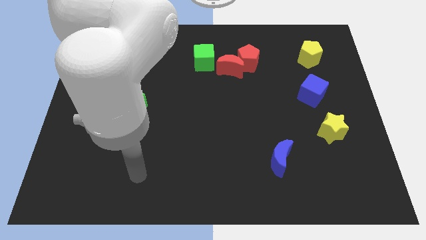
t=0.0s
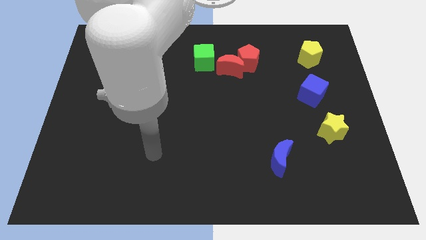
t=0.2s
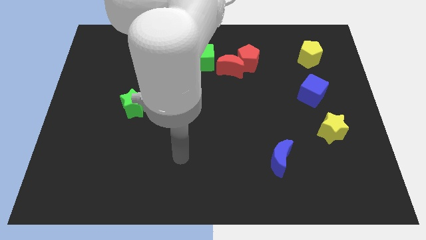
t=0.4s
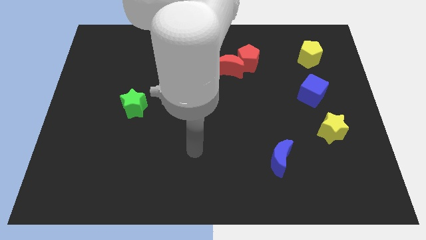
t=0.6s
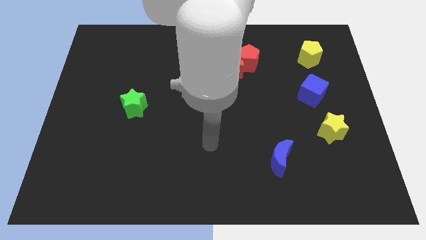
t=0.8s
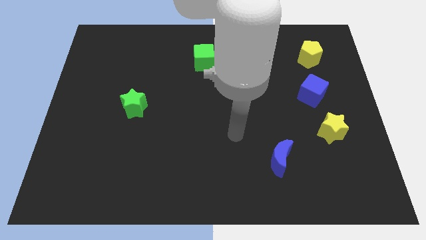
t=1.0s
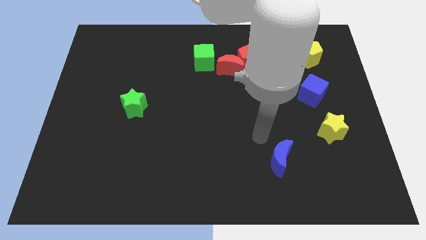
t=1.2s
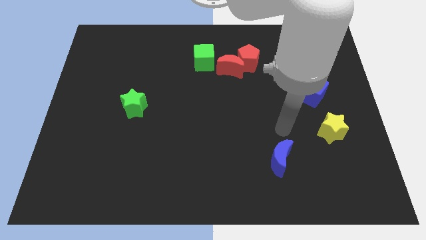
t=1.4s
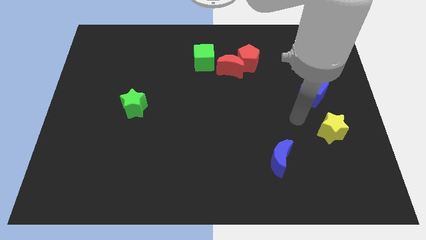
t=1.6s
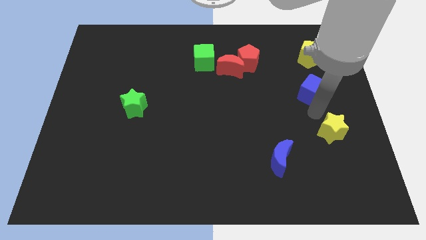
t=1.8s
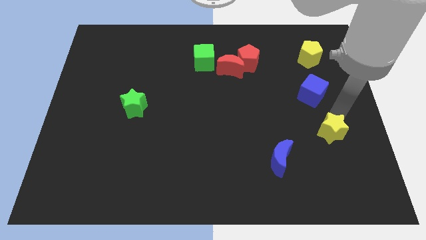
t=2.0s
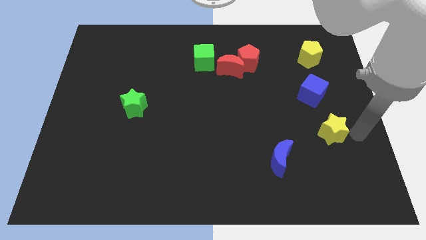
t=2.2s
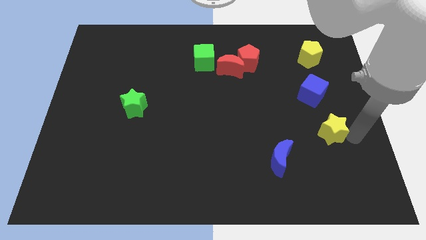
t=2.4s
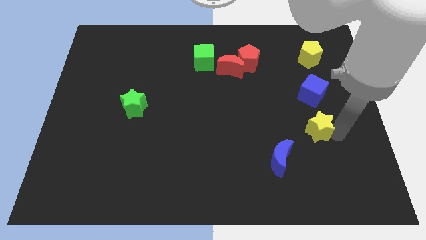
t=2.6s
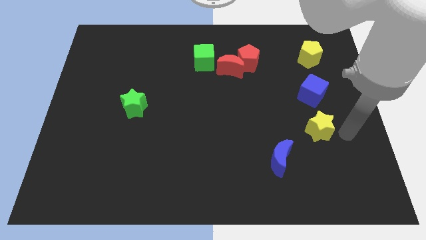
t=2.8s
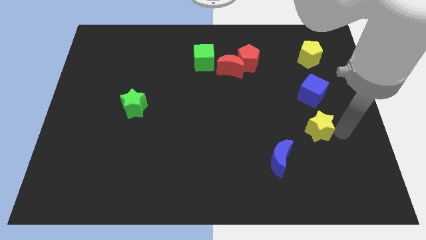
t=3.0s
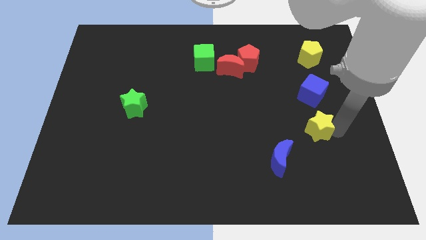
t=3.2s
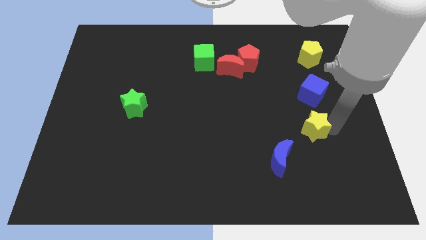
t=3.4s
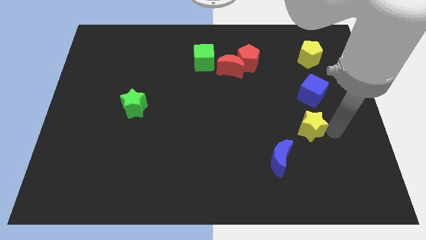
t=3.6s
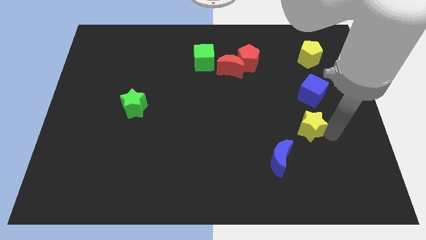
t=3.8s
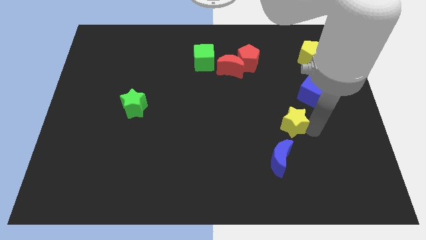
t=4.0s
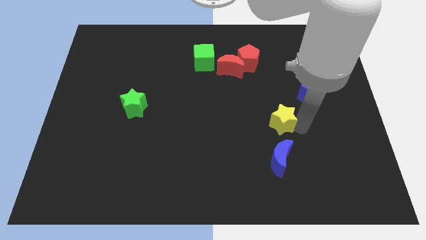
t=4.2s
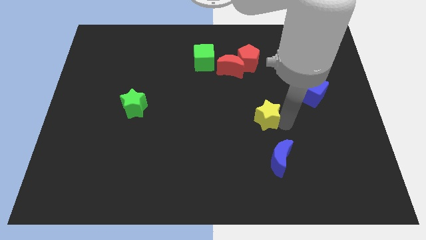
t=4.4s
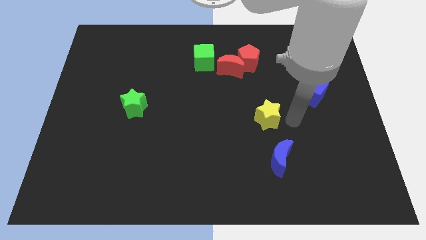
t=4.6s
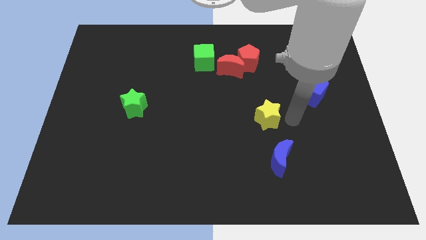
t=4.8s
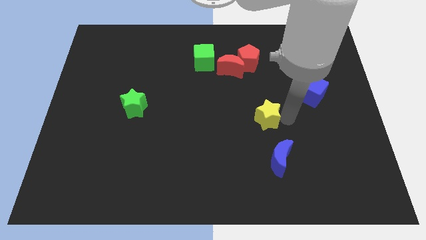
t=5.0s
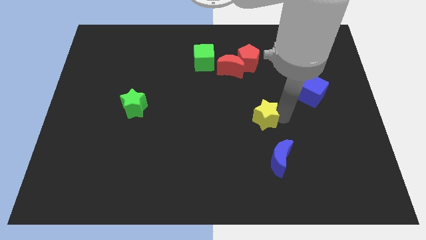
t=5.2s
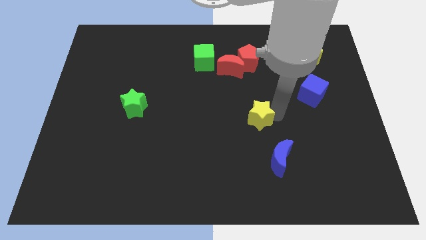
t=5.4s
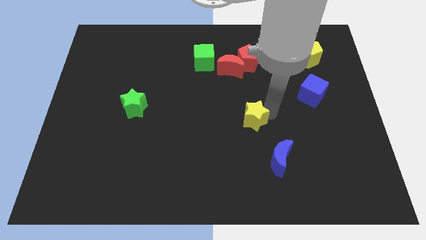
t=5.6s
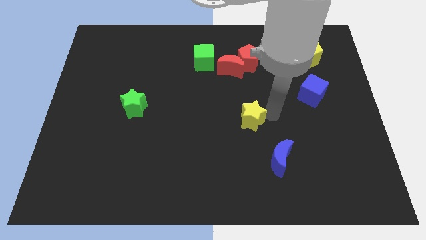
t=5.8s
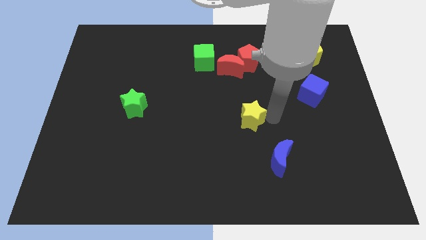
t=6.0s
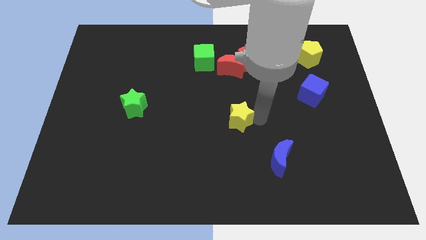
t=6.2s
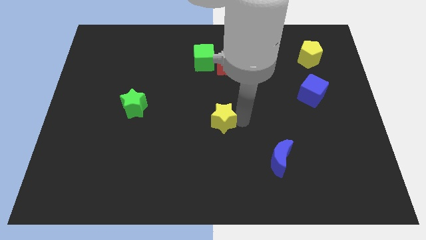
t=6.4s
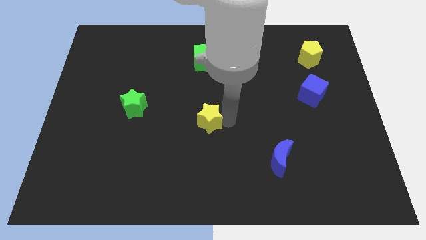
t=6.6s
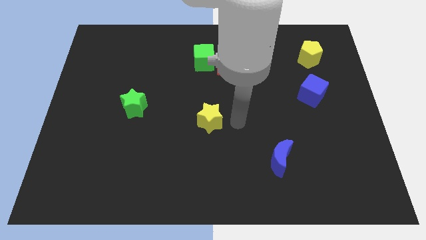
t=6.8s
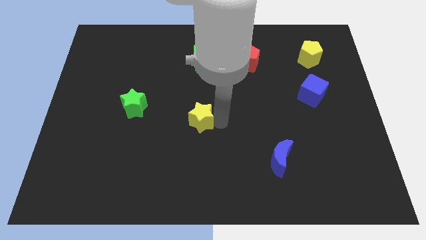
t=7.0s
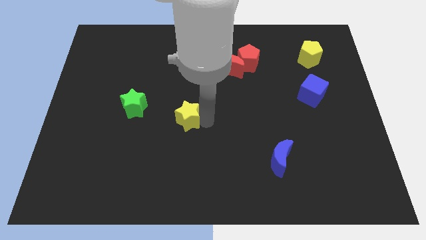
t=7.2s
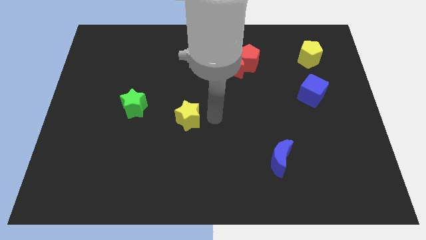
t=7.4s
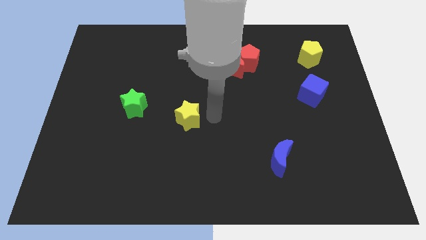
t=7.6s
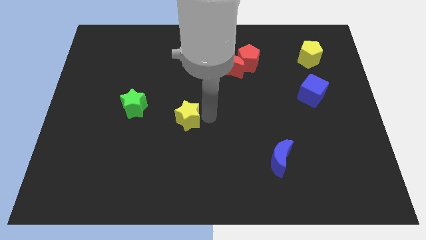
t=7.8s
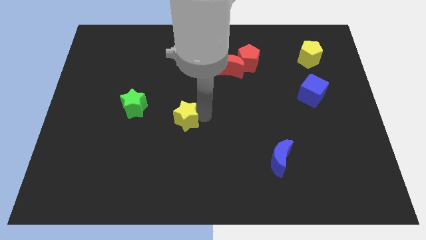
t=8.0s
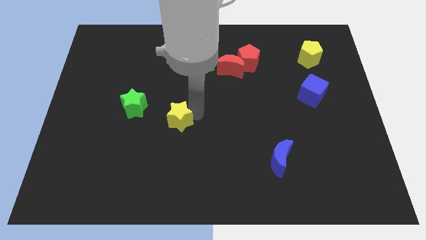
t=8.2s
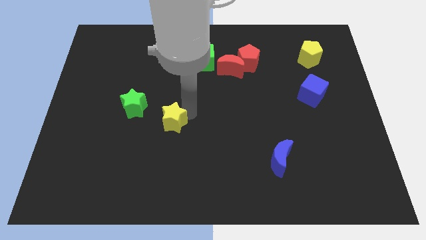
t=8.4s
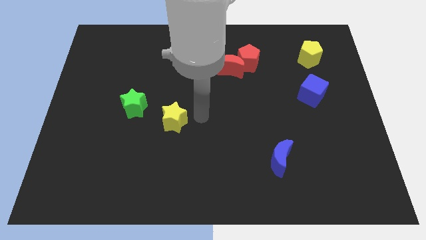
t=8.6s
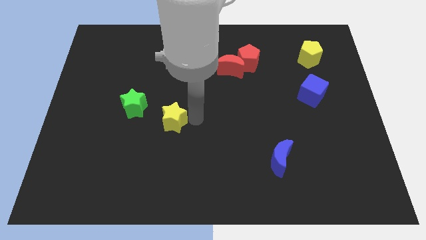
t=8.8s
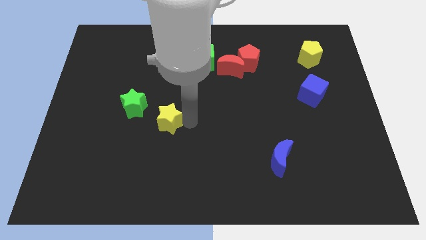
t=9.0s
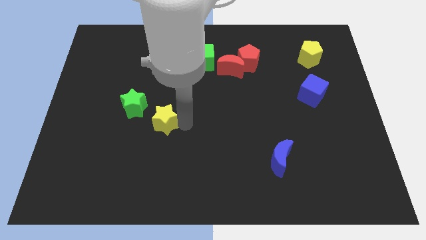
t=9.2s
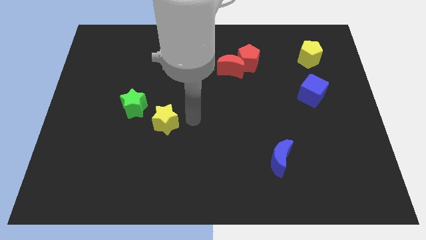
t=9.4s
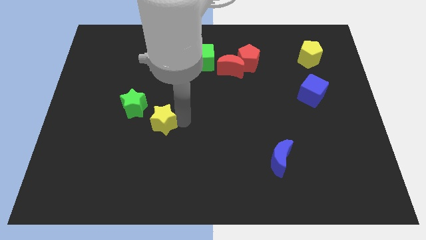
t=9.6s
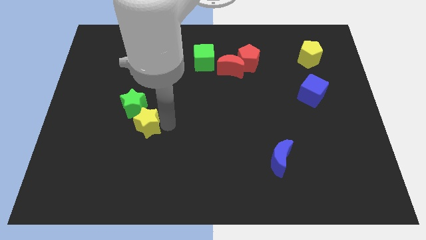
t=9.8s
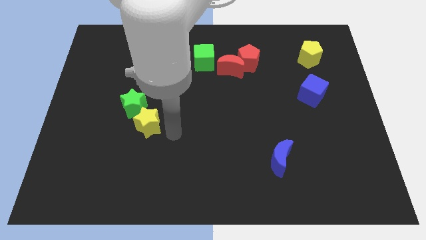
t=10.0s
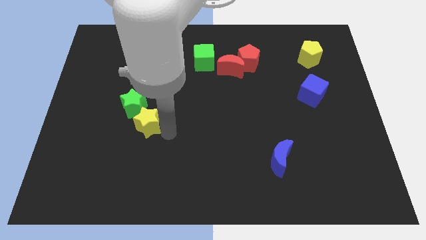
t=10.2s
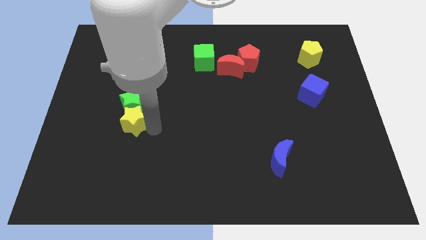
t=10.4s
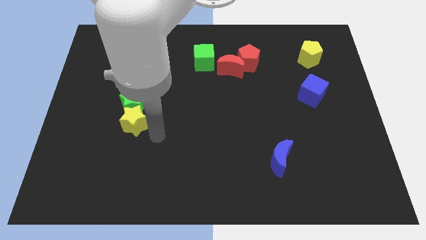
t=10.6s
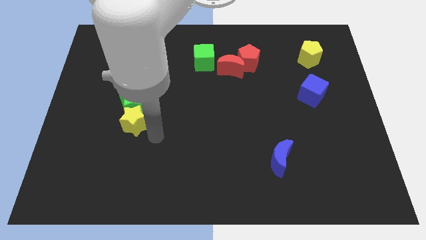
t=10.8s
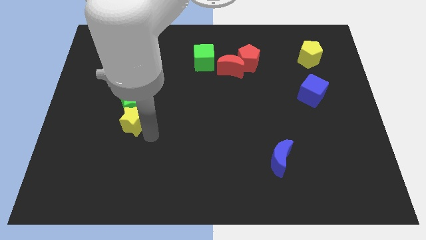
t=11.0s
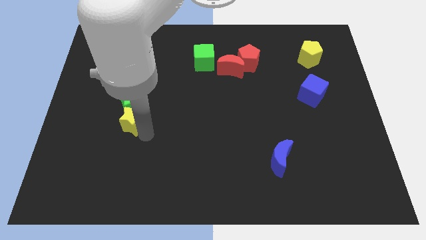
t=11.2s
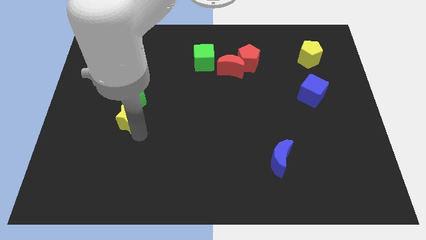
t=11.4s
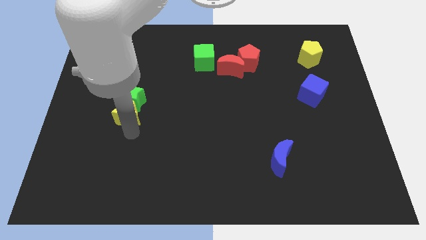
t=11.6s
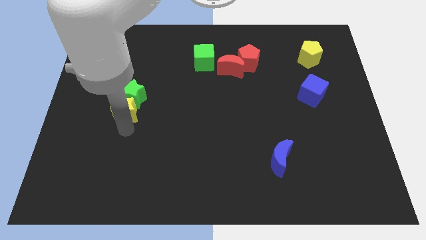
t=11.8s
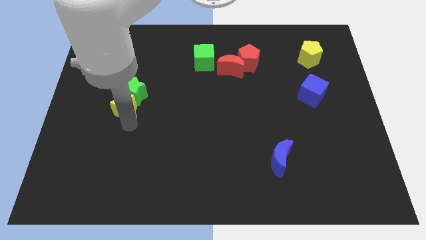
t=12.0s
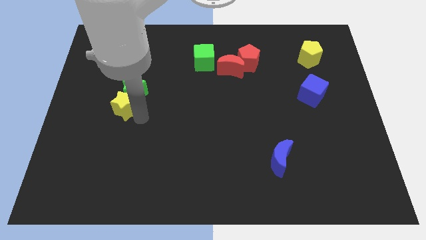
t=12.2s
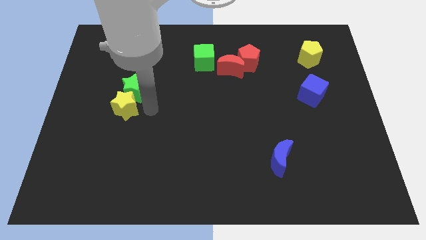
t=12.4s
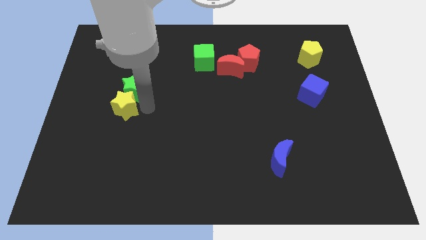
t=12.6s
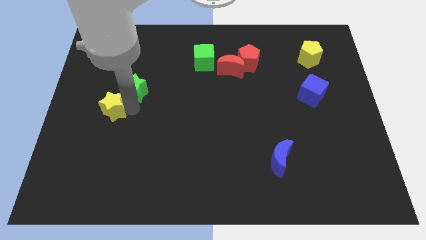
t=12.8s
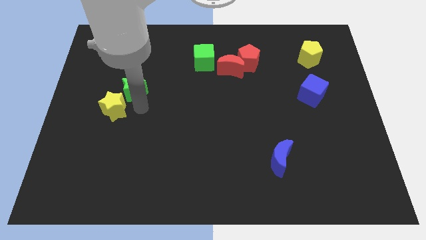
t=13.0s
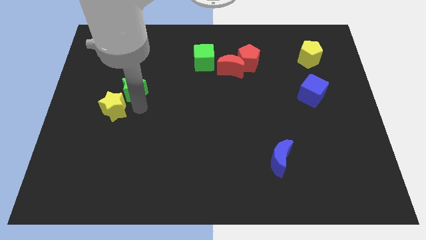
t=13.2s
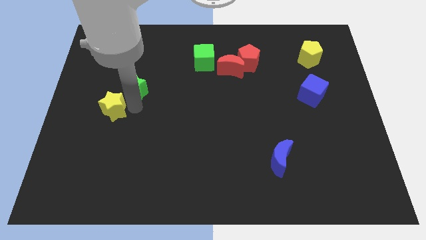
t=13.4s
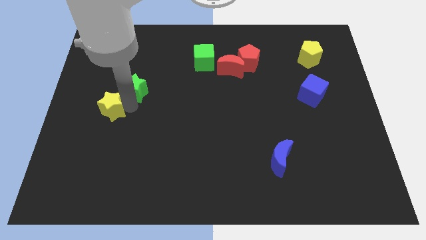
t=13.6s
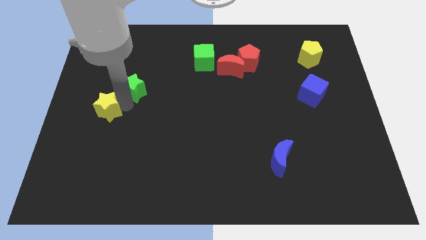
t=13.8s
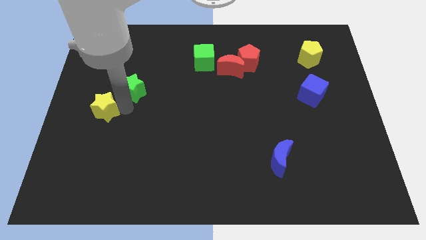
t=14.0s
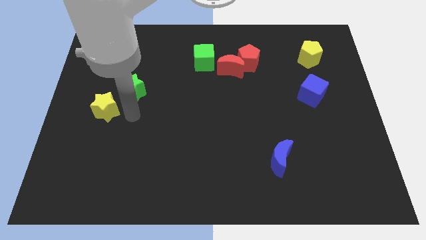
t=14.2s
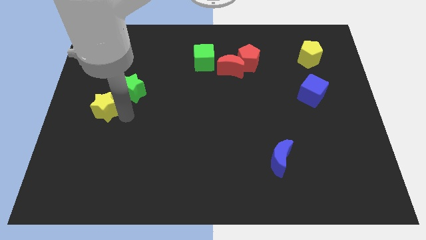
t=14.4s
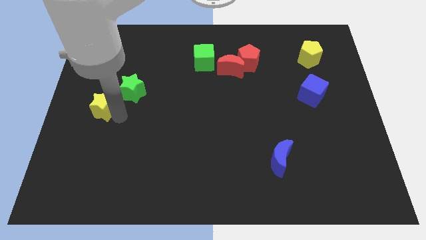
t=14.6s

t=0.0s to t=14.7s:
push the yellow star to the center left
